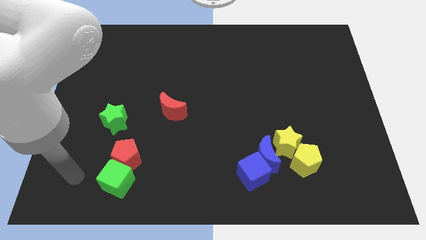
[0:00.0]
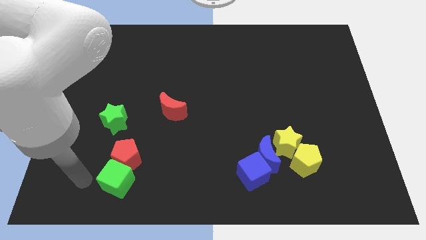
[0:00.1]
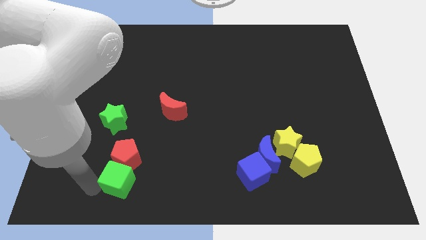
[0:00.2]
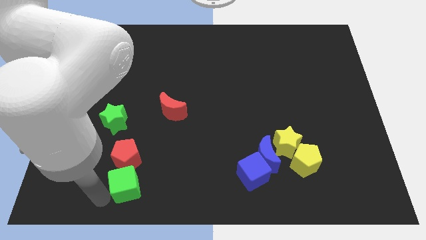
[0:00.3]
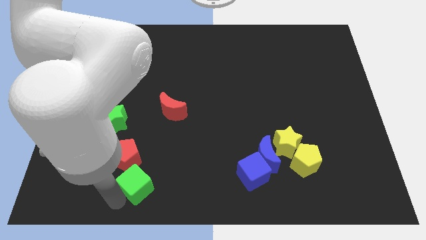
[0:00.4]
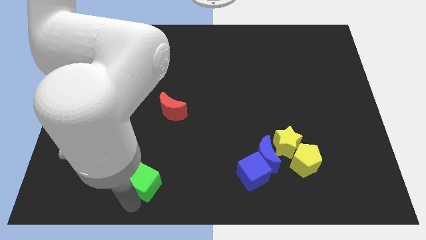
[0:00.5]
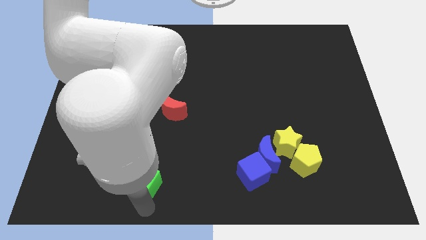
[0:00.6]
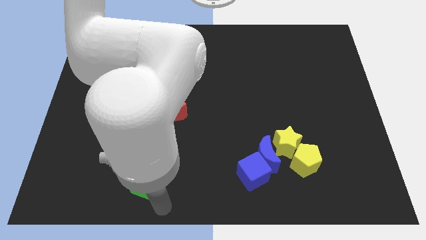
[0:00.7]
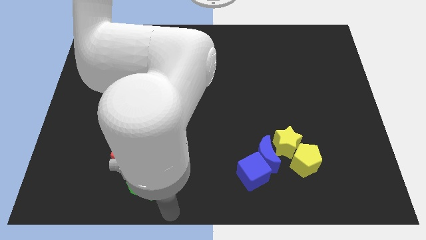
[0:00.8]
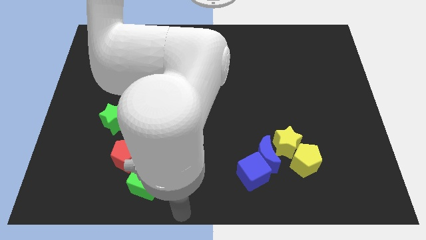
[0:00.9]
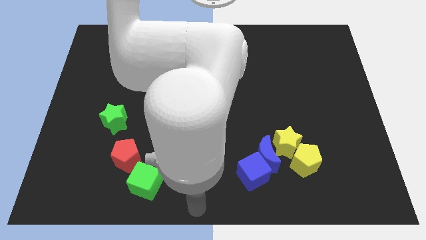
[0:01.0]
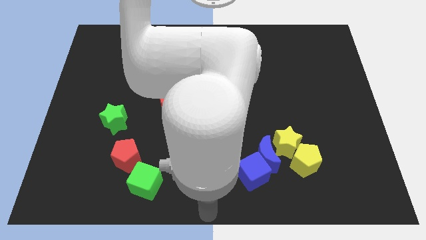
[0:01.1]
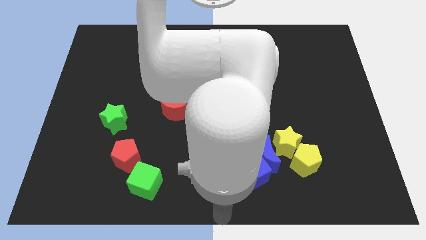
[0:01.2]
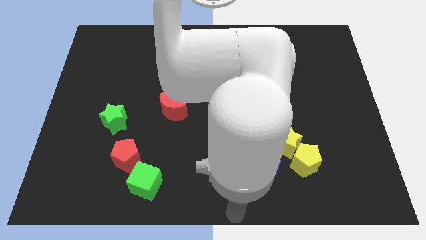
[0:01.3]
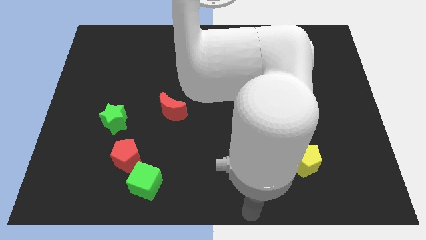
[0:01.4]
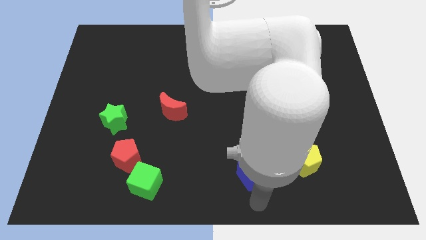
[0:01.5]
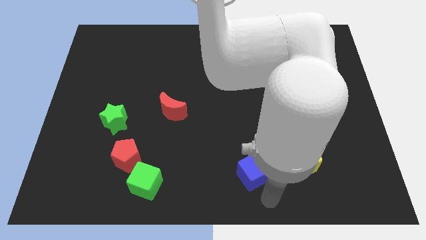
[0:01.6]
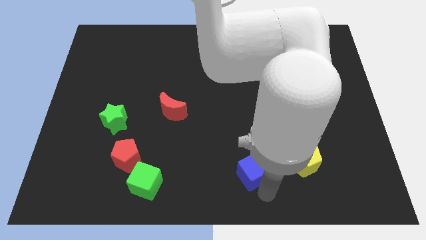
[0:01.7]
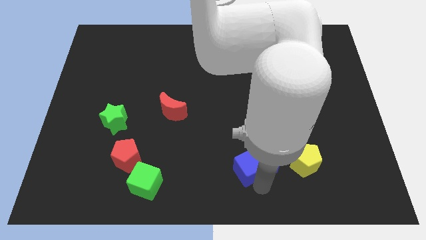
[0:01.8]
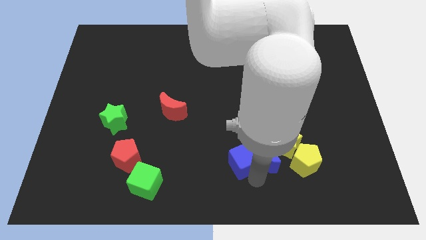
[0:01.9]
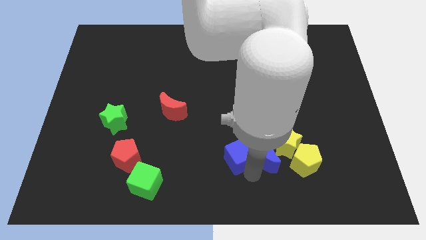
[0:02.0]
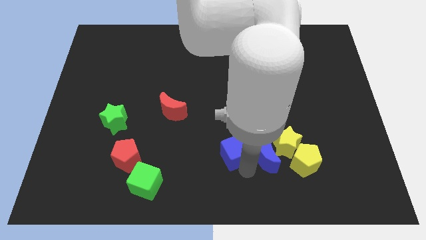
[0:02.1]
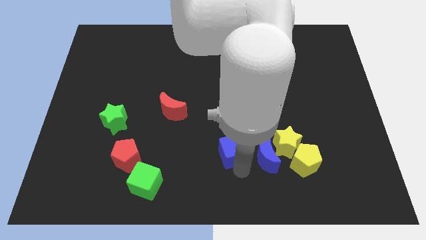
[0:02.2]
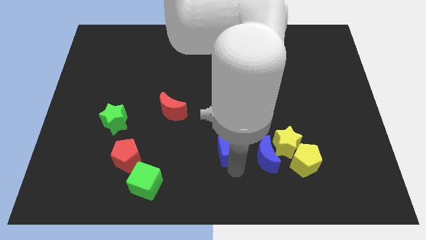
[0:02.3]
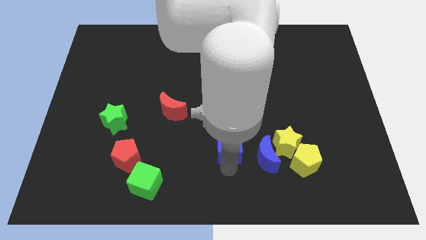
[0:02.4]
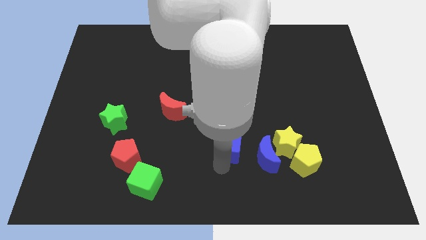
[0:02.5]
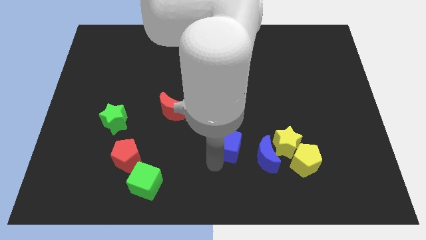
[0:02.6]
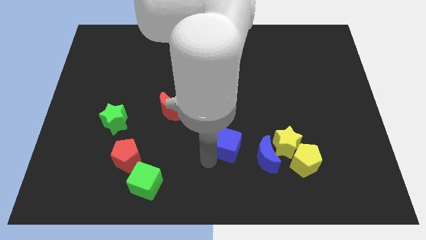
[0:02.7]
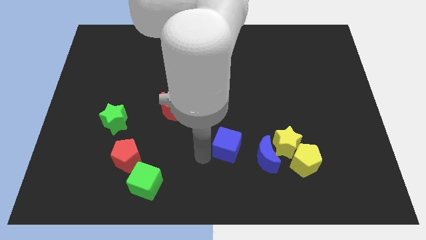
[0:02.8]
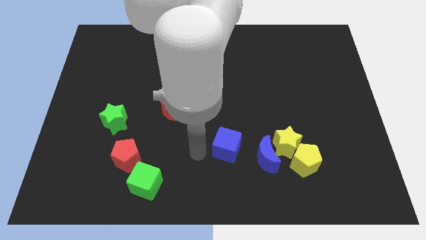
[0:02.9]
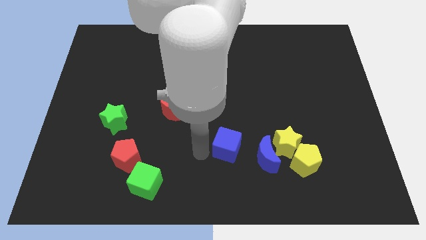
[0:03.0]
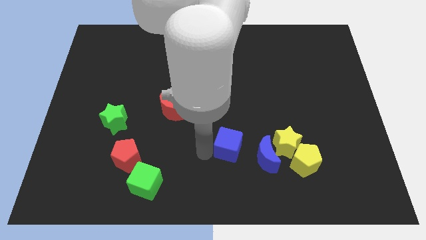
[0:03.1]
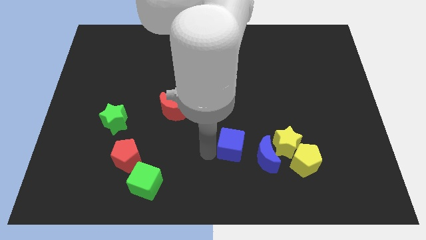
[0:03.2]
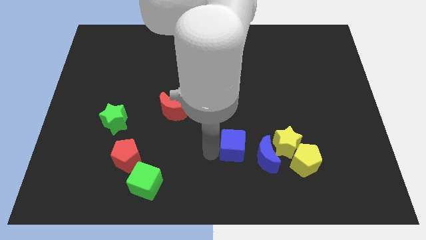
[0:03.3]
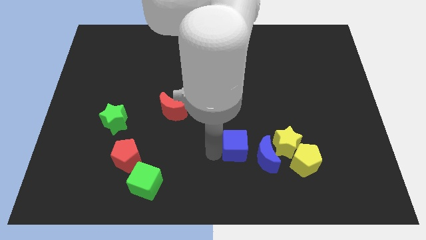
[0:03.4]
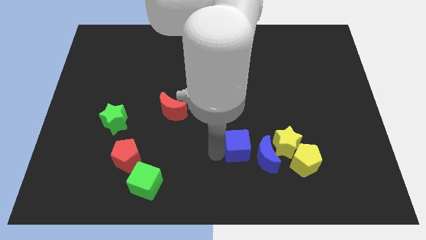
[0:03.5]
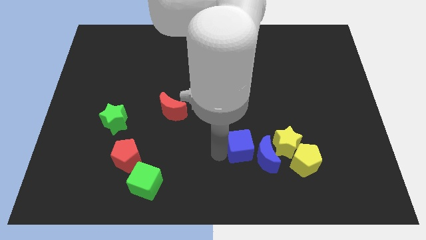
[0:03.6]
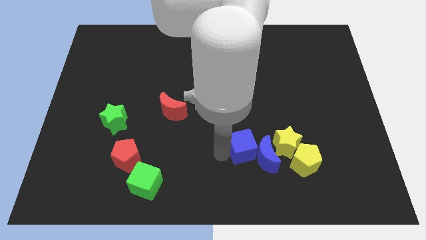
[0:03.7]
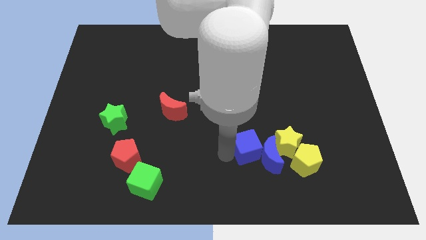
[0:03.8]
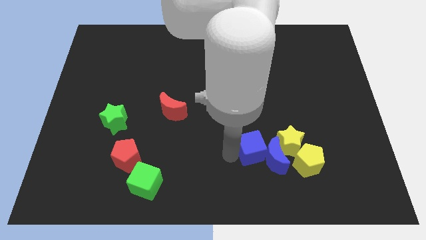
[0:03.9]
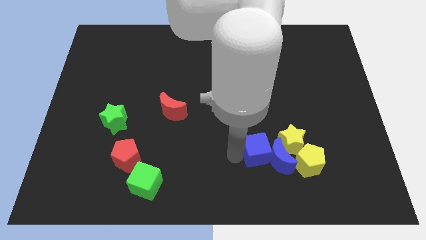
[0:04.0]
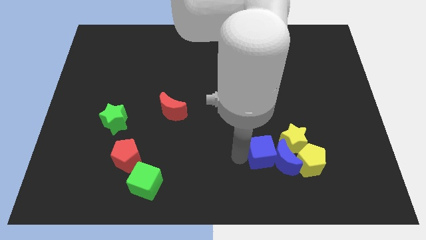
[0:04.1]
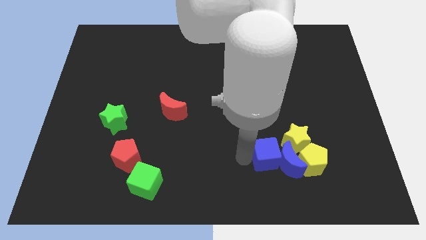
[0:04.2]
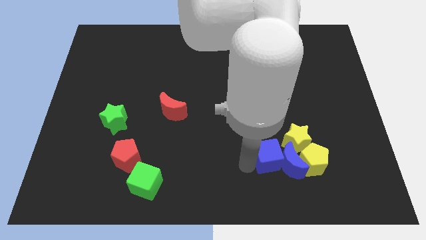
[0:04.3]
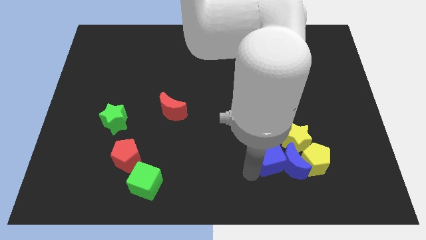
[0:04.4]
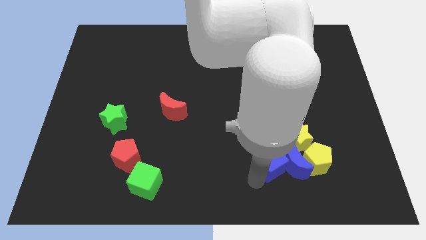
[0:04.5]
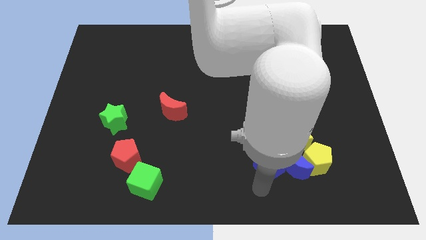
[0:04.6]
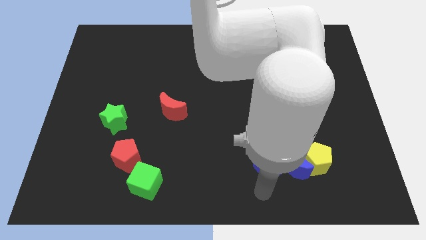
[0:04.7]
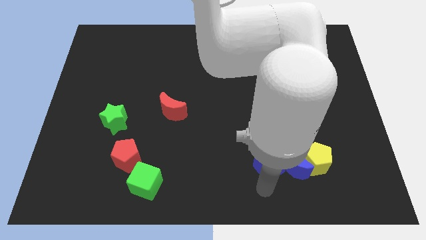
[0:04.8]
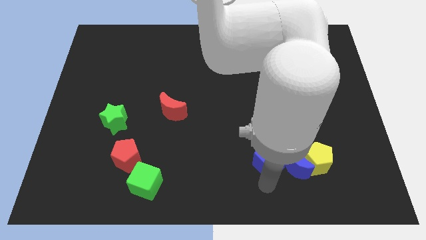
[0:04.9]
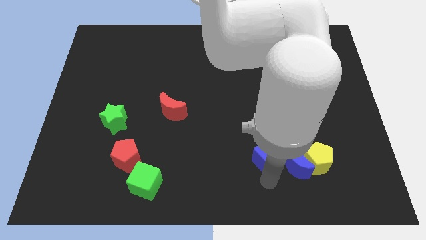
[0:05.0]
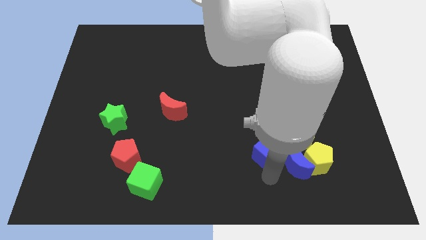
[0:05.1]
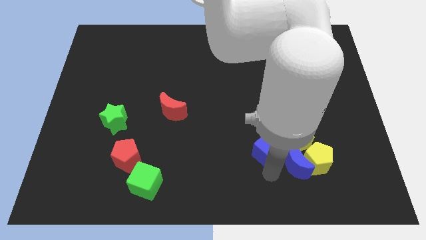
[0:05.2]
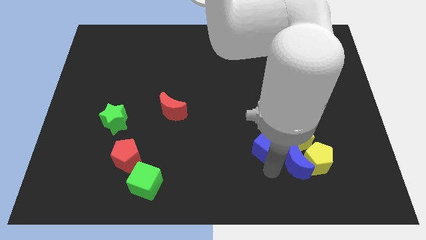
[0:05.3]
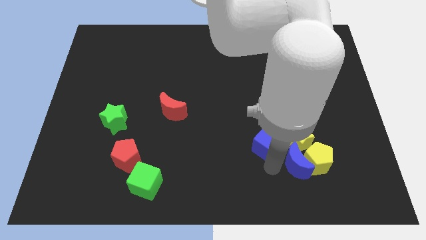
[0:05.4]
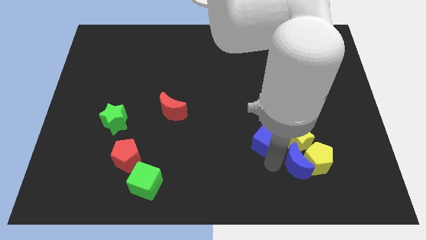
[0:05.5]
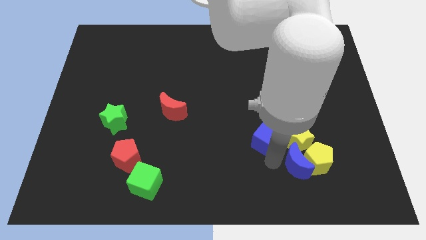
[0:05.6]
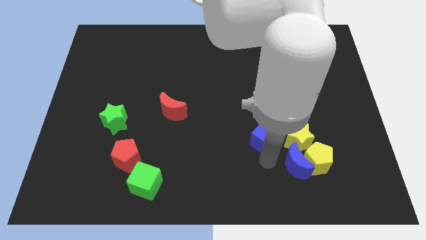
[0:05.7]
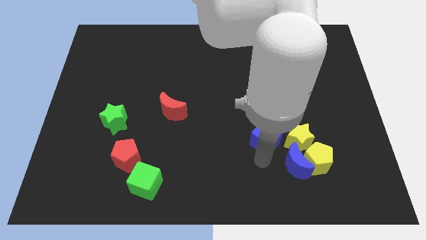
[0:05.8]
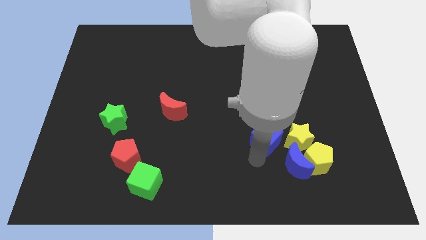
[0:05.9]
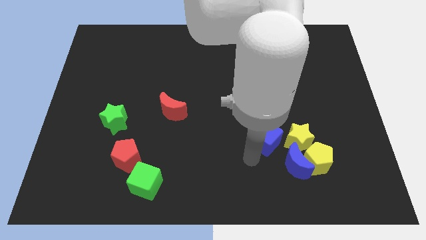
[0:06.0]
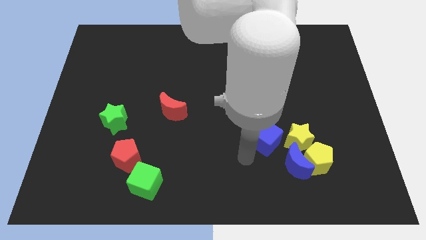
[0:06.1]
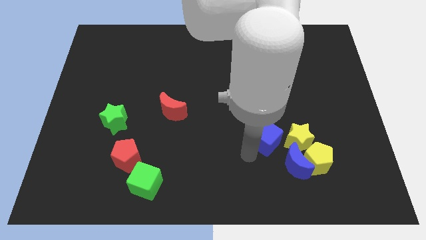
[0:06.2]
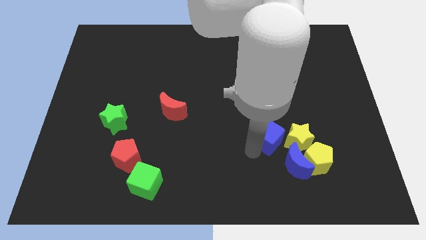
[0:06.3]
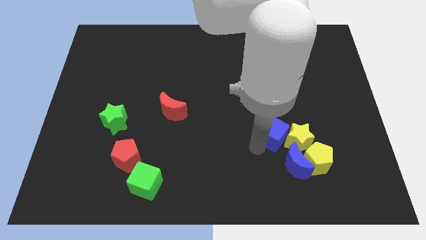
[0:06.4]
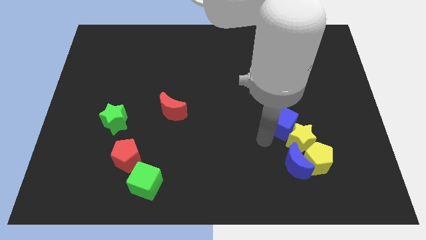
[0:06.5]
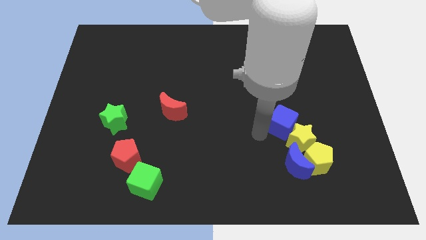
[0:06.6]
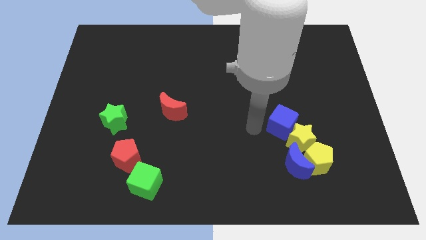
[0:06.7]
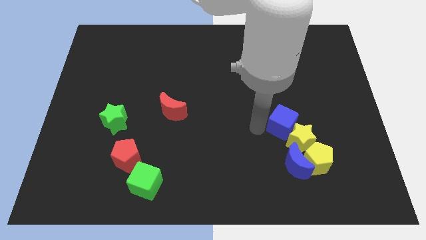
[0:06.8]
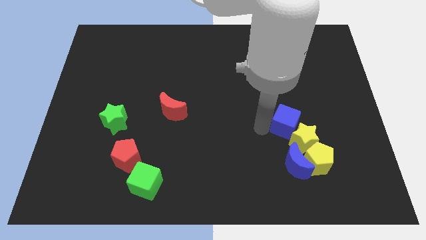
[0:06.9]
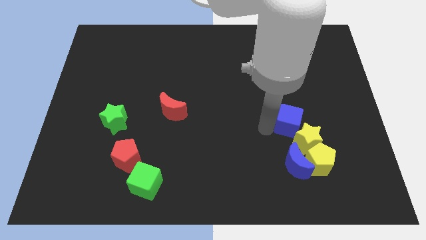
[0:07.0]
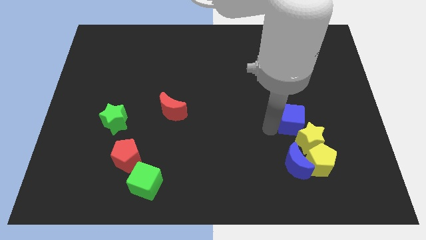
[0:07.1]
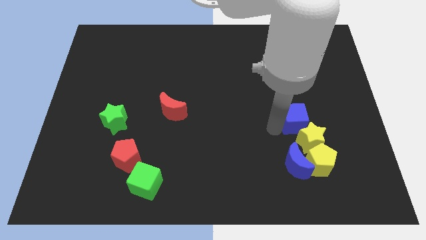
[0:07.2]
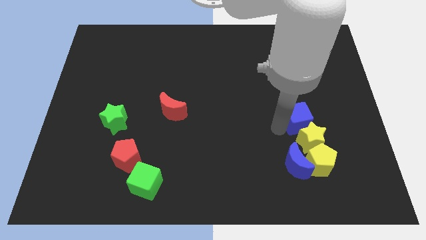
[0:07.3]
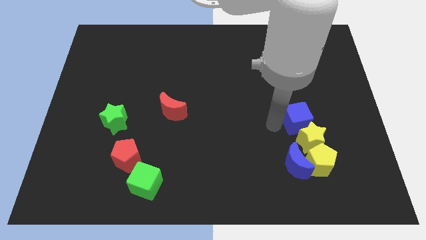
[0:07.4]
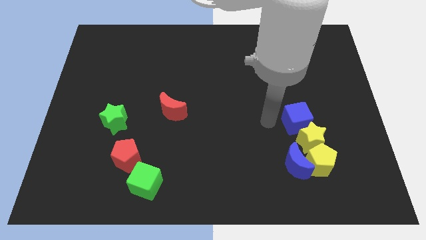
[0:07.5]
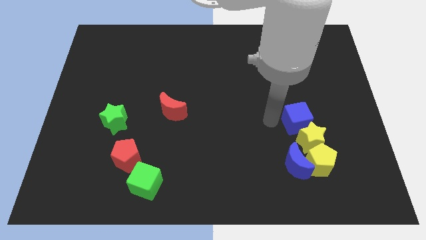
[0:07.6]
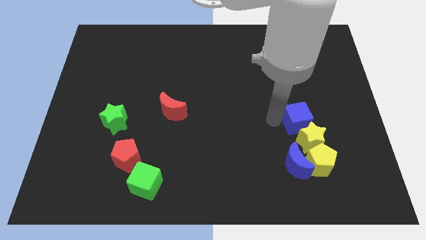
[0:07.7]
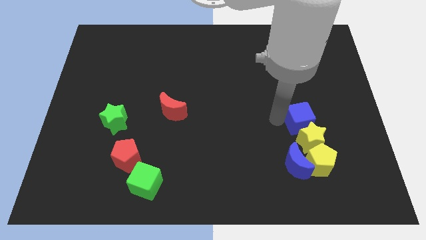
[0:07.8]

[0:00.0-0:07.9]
slide the blue cube to the top right side of the yellow star
